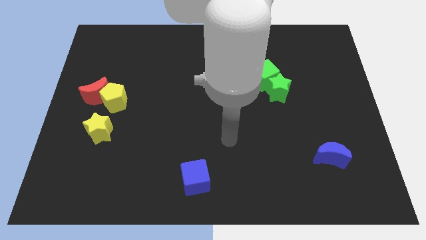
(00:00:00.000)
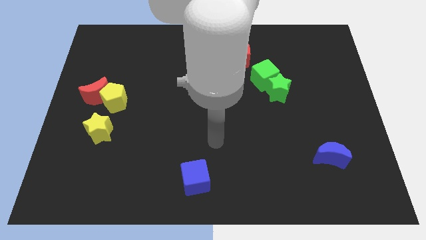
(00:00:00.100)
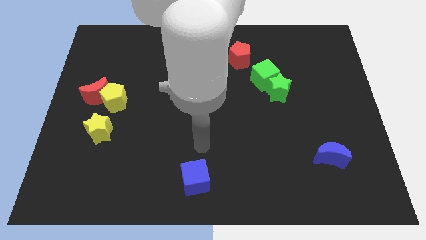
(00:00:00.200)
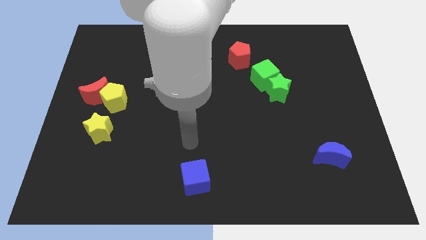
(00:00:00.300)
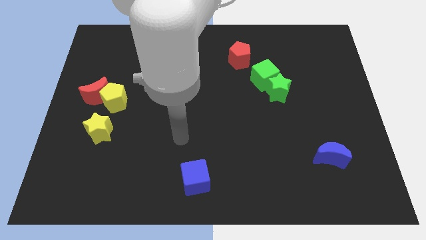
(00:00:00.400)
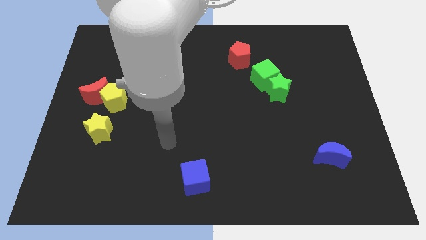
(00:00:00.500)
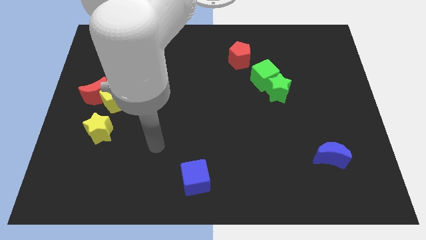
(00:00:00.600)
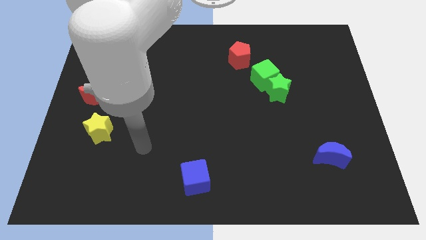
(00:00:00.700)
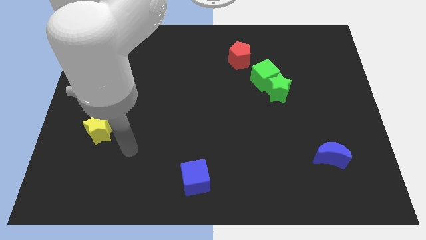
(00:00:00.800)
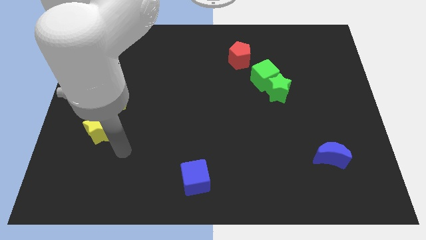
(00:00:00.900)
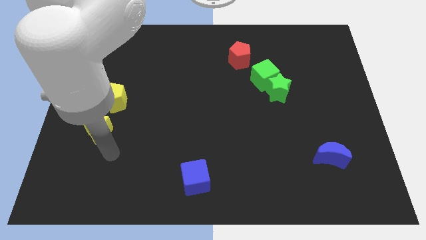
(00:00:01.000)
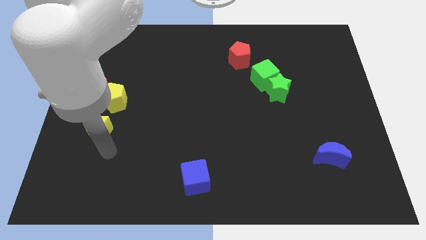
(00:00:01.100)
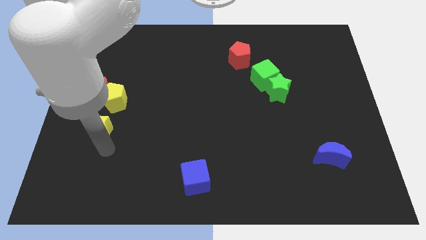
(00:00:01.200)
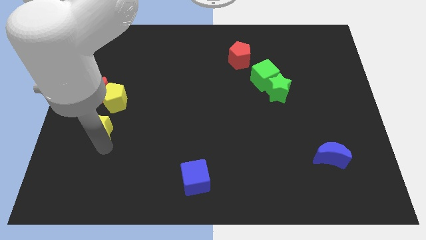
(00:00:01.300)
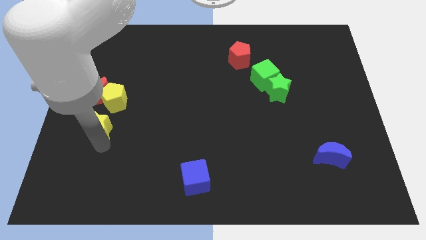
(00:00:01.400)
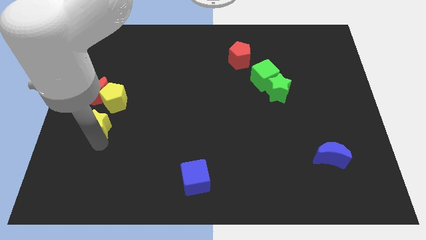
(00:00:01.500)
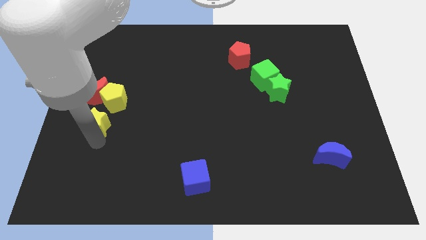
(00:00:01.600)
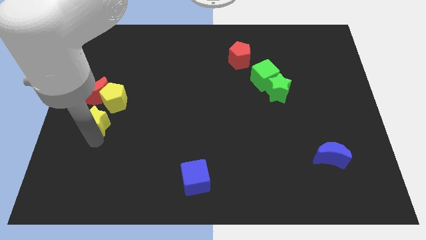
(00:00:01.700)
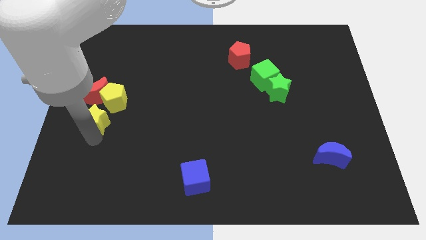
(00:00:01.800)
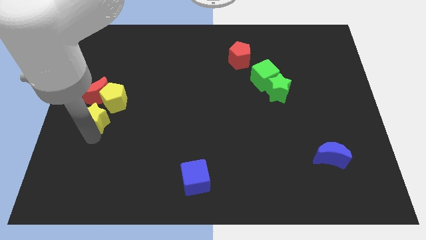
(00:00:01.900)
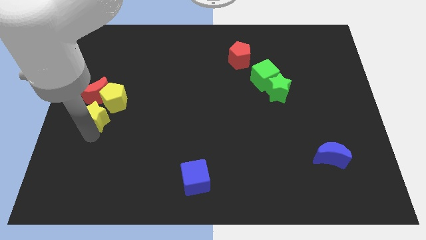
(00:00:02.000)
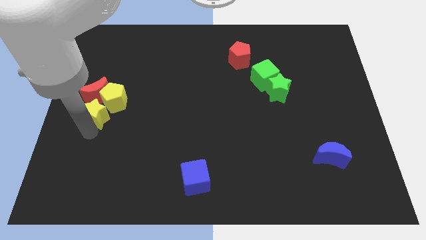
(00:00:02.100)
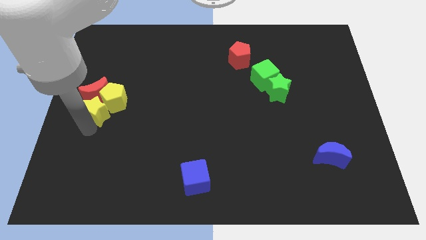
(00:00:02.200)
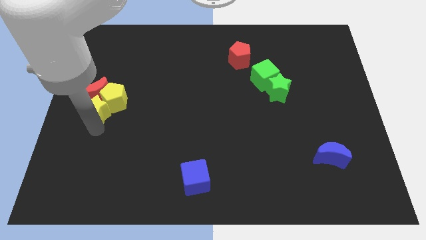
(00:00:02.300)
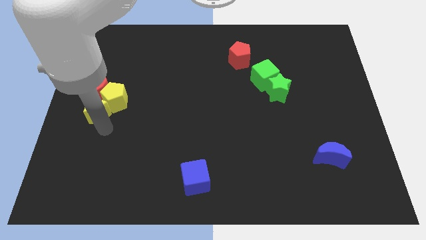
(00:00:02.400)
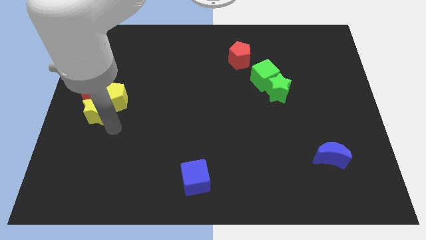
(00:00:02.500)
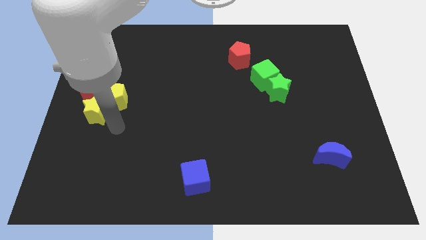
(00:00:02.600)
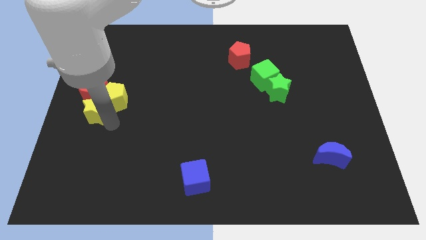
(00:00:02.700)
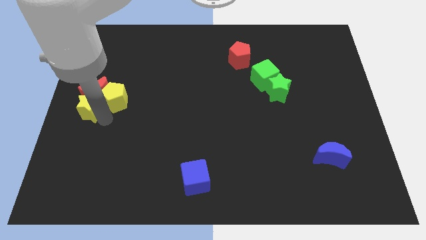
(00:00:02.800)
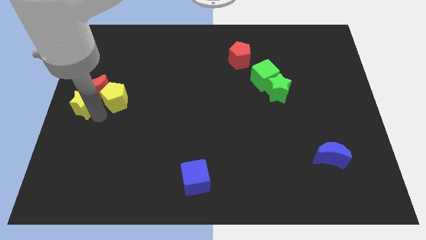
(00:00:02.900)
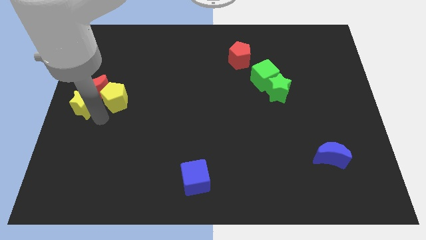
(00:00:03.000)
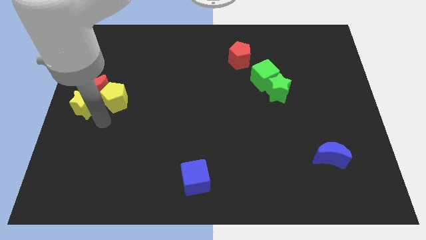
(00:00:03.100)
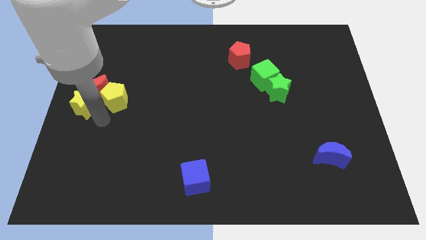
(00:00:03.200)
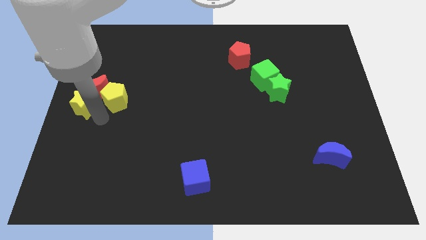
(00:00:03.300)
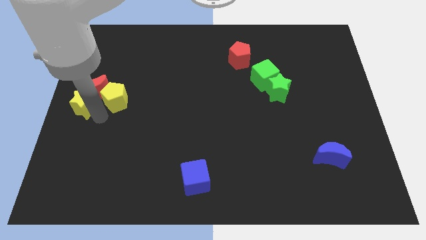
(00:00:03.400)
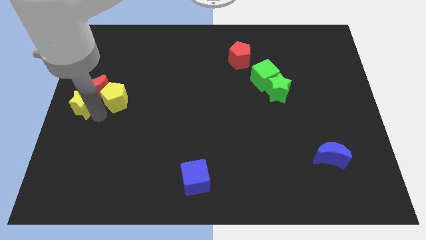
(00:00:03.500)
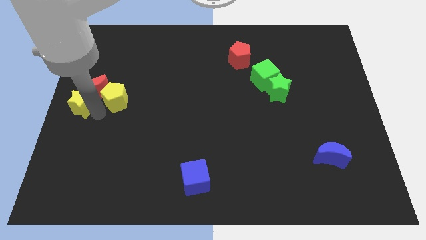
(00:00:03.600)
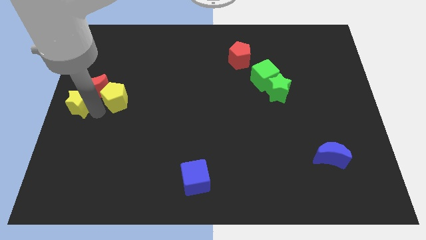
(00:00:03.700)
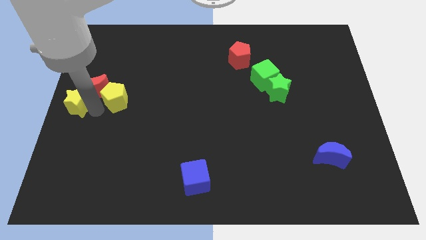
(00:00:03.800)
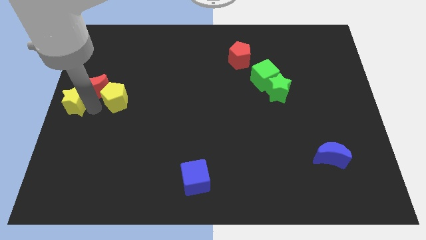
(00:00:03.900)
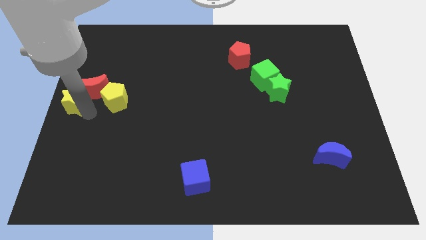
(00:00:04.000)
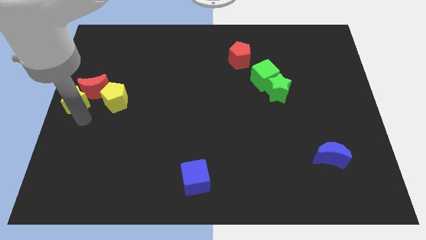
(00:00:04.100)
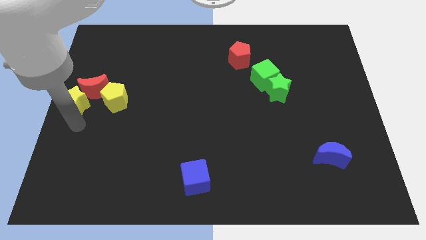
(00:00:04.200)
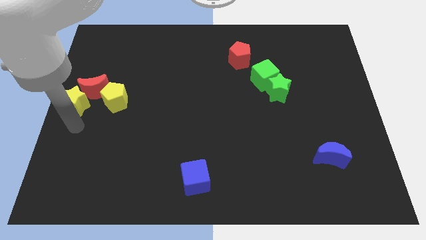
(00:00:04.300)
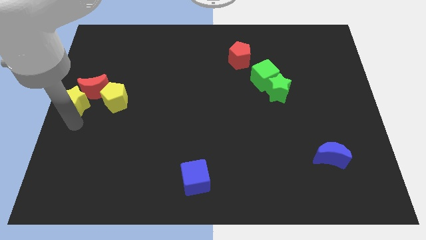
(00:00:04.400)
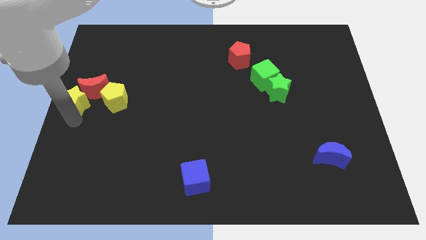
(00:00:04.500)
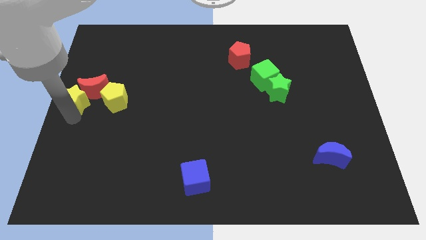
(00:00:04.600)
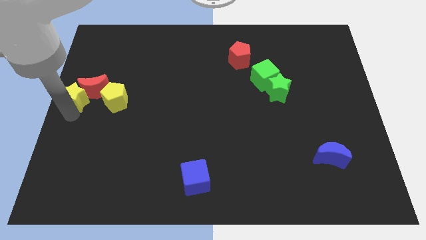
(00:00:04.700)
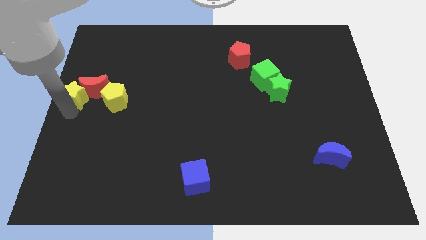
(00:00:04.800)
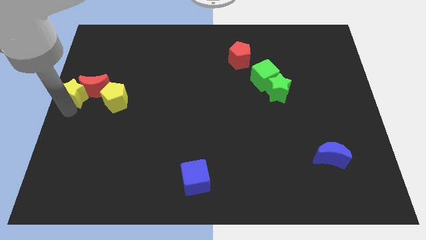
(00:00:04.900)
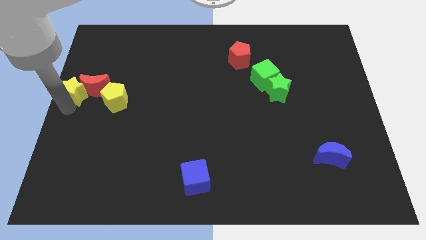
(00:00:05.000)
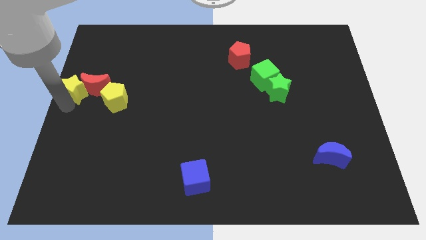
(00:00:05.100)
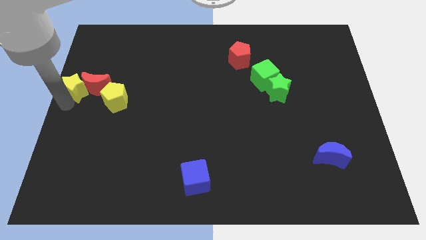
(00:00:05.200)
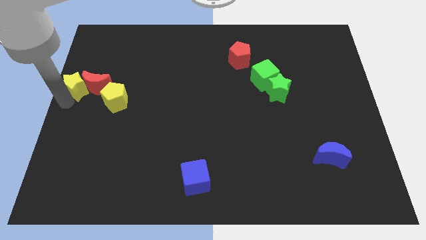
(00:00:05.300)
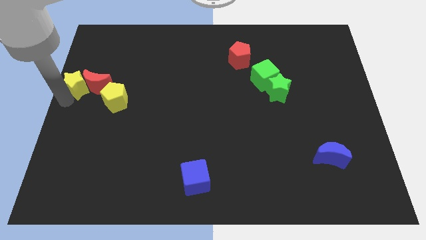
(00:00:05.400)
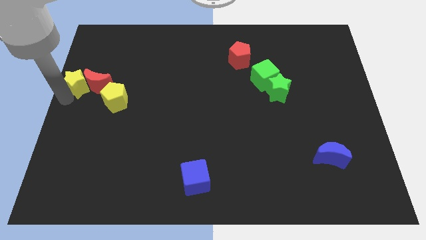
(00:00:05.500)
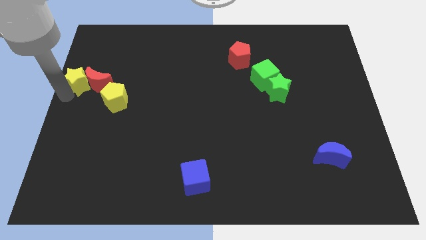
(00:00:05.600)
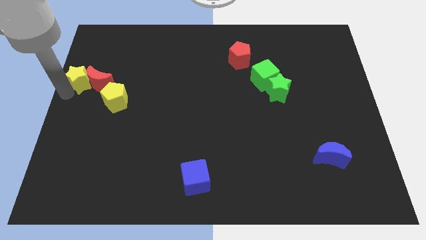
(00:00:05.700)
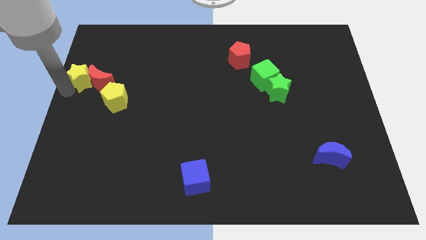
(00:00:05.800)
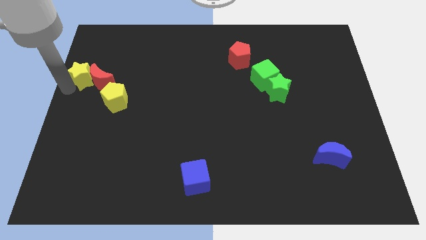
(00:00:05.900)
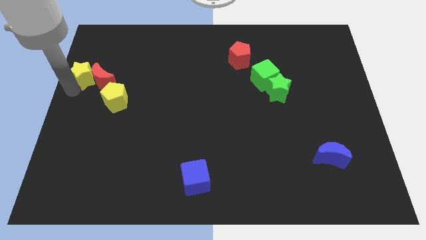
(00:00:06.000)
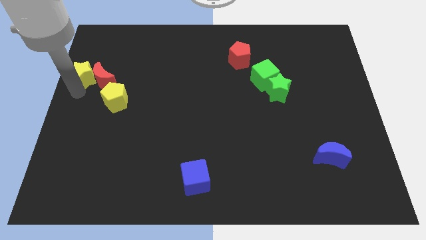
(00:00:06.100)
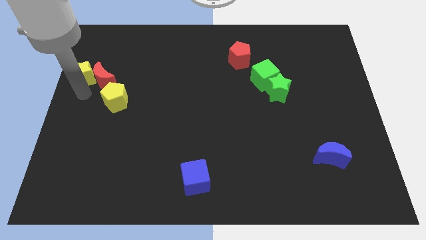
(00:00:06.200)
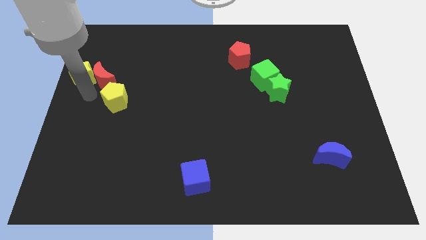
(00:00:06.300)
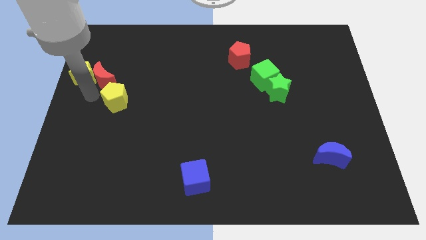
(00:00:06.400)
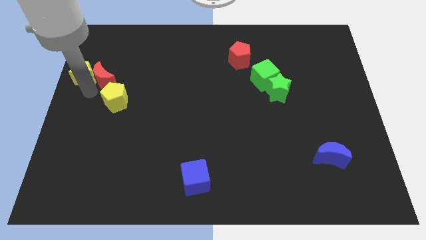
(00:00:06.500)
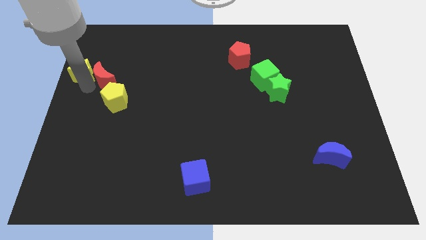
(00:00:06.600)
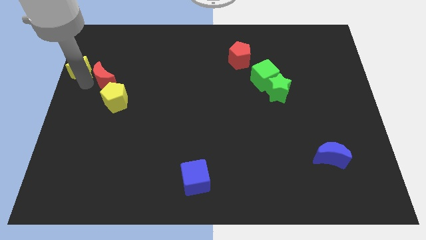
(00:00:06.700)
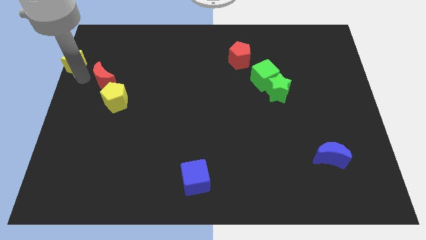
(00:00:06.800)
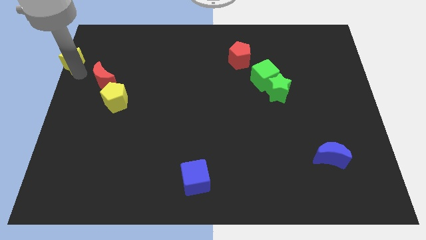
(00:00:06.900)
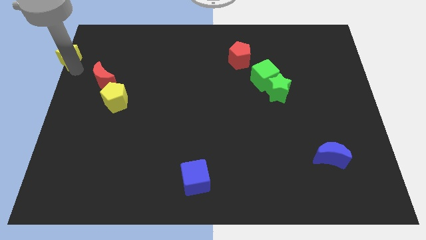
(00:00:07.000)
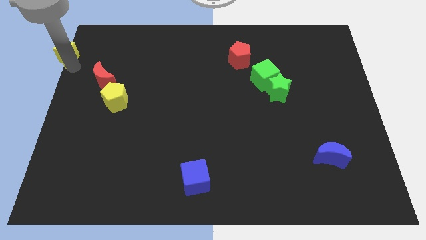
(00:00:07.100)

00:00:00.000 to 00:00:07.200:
slide the yellow star to the top left
